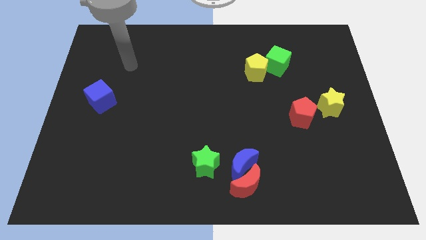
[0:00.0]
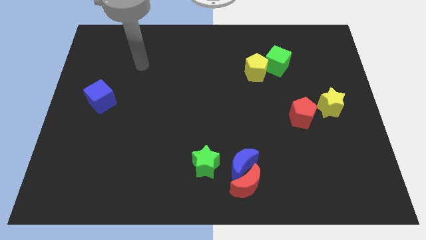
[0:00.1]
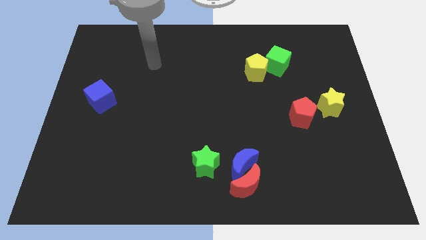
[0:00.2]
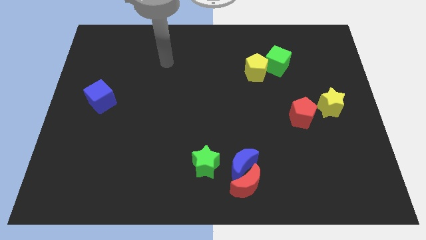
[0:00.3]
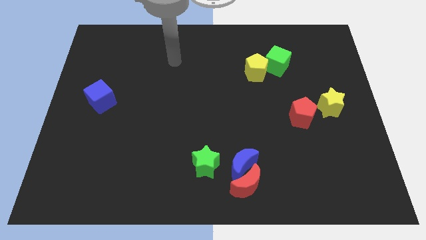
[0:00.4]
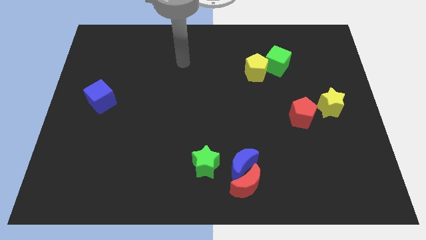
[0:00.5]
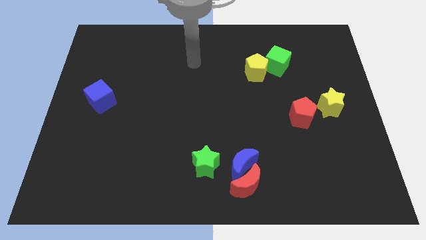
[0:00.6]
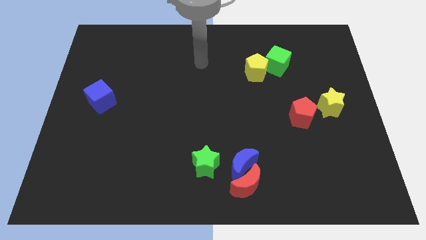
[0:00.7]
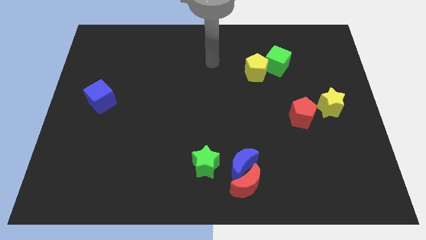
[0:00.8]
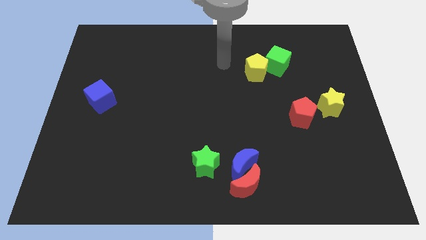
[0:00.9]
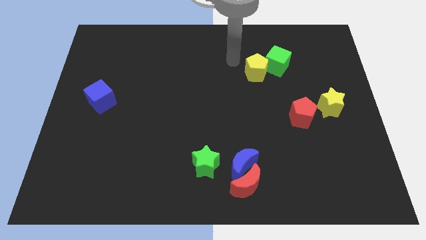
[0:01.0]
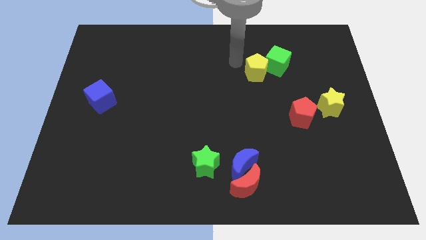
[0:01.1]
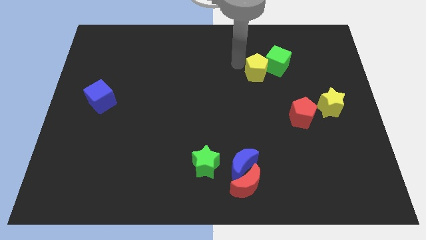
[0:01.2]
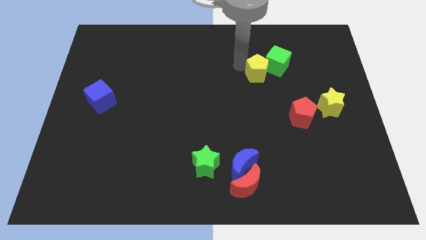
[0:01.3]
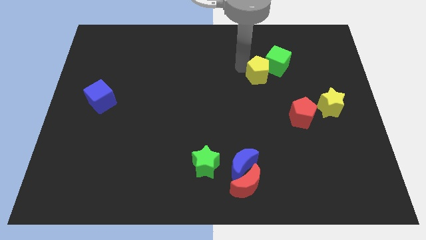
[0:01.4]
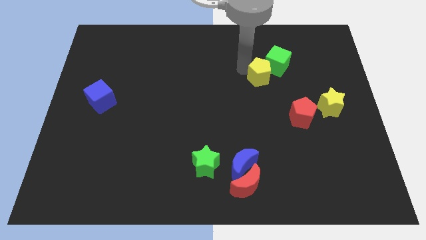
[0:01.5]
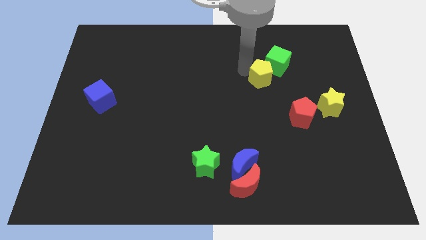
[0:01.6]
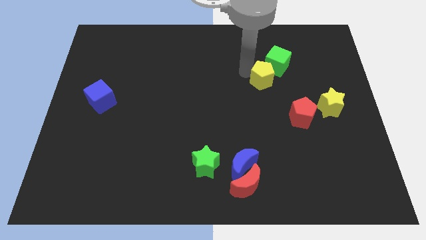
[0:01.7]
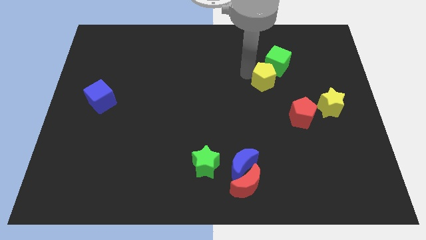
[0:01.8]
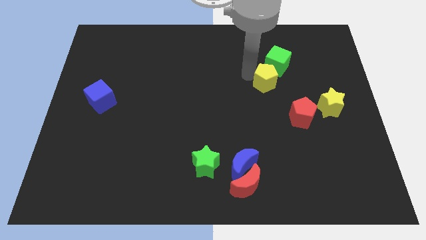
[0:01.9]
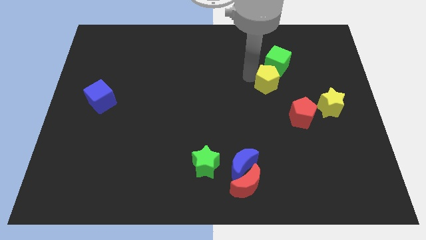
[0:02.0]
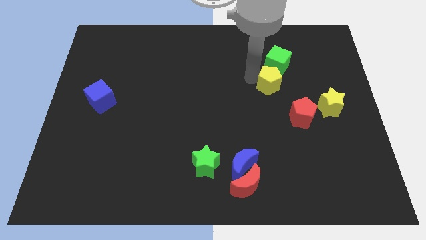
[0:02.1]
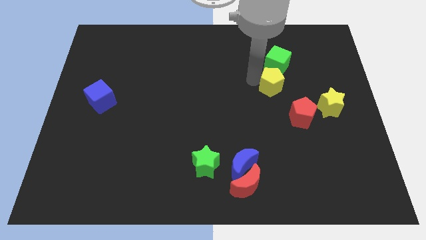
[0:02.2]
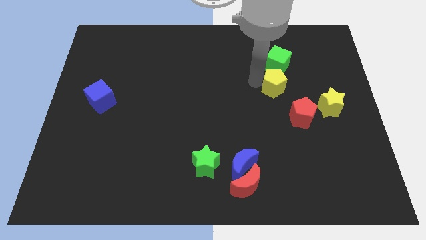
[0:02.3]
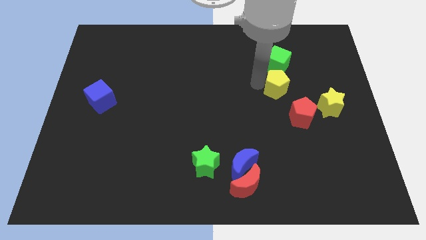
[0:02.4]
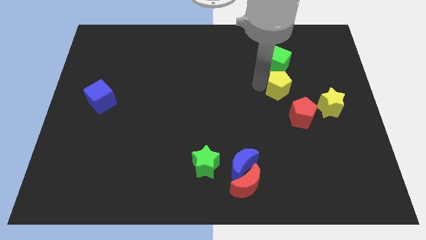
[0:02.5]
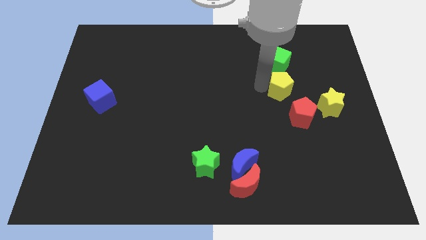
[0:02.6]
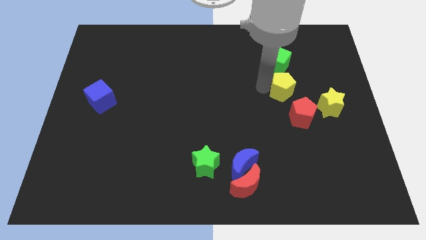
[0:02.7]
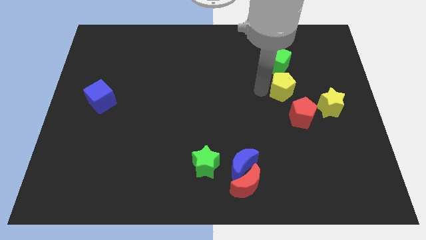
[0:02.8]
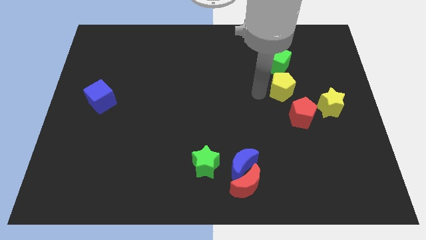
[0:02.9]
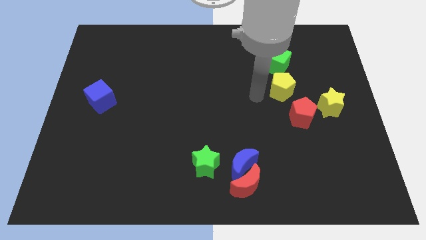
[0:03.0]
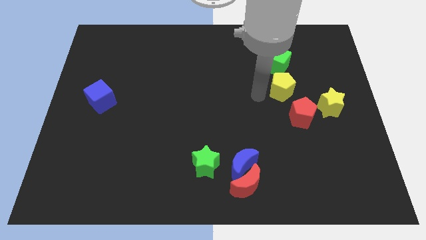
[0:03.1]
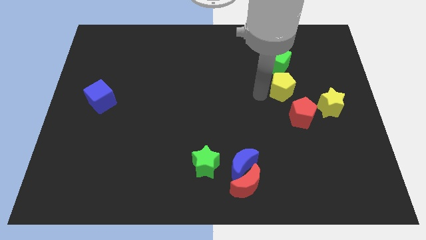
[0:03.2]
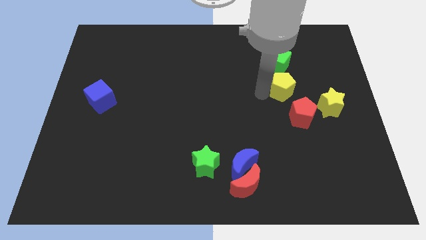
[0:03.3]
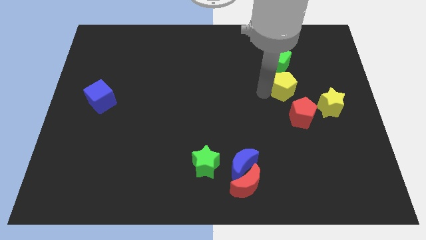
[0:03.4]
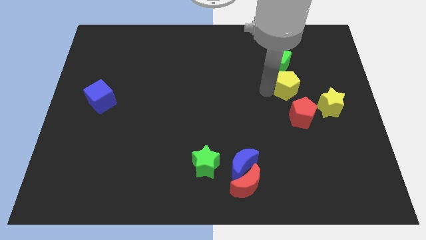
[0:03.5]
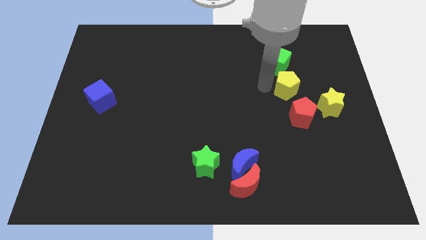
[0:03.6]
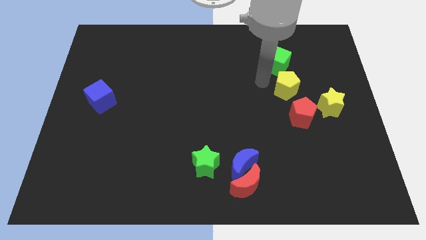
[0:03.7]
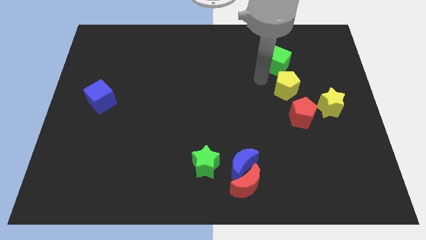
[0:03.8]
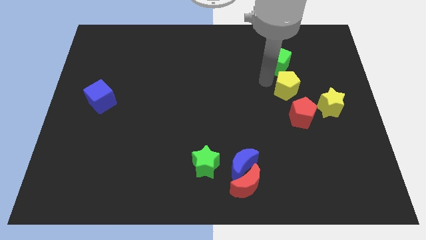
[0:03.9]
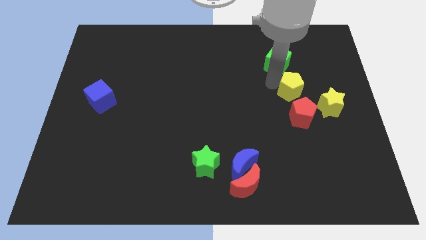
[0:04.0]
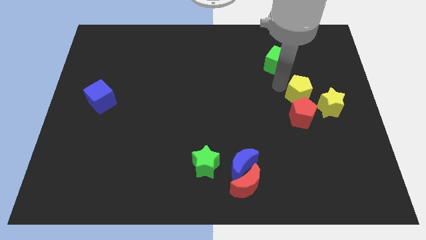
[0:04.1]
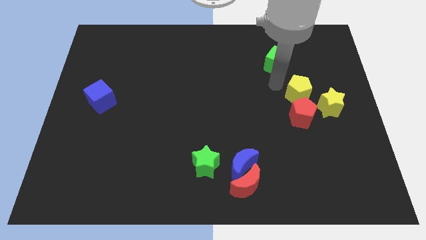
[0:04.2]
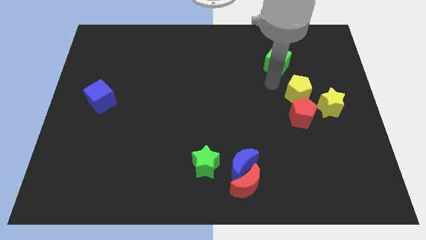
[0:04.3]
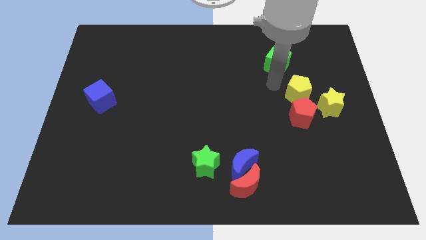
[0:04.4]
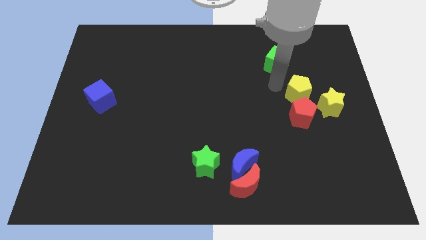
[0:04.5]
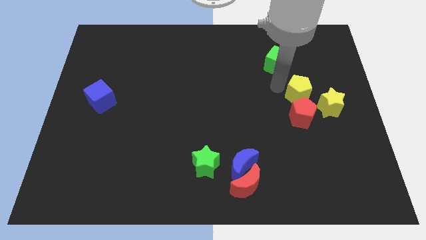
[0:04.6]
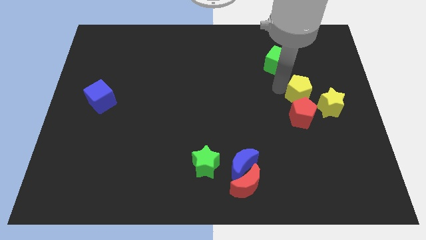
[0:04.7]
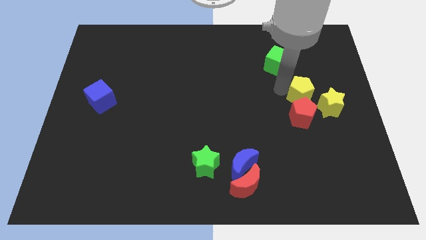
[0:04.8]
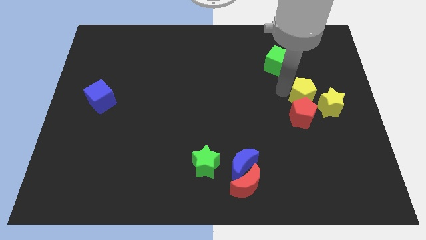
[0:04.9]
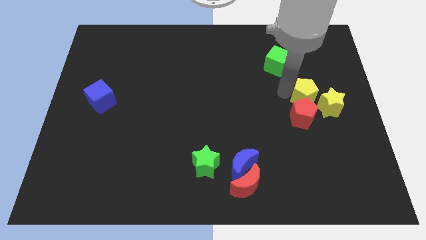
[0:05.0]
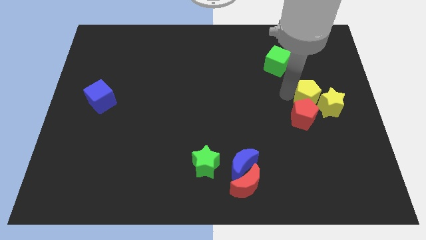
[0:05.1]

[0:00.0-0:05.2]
move the yellow pentagon next to the yellow star

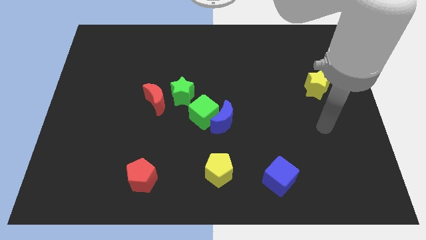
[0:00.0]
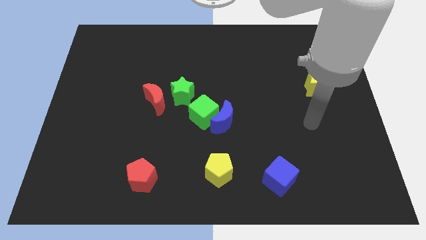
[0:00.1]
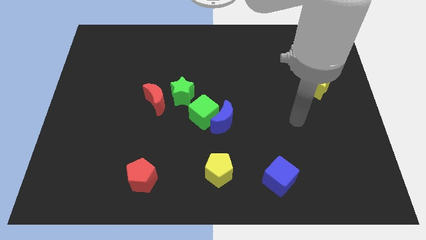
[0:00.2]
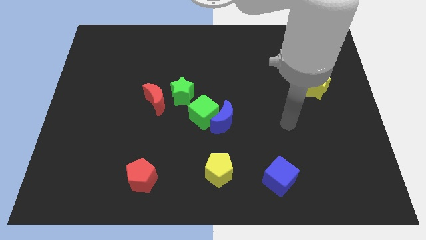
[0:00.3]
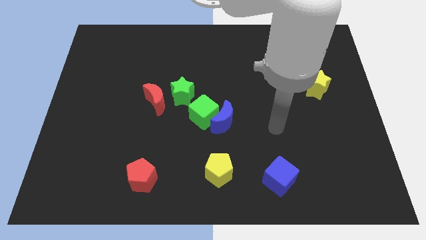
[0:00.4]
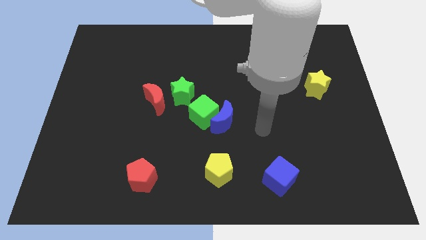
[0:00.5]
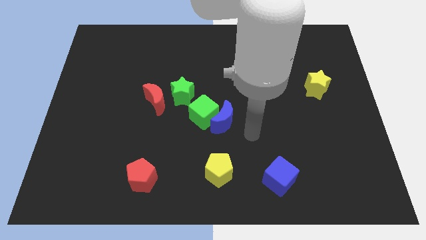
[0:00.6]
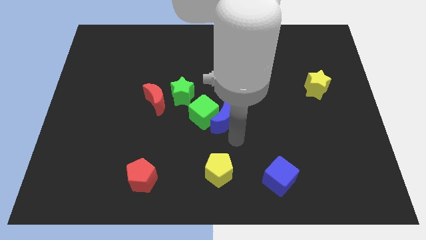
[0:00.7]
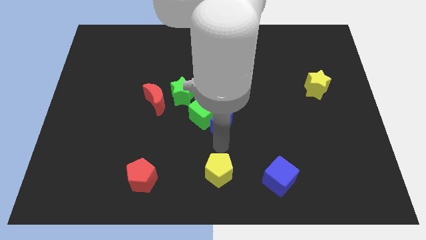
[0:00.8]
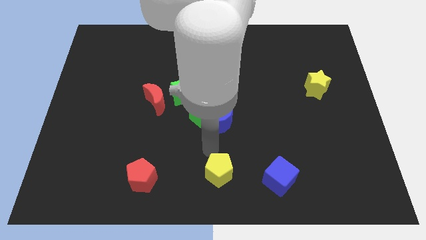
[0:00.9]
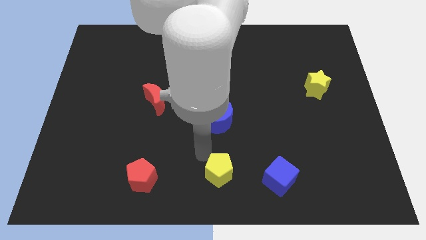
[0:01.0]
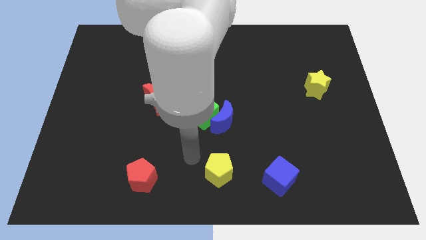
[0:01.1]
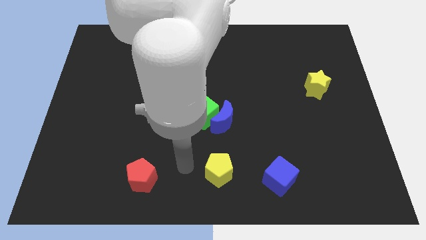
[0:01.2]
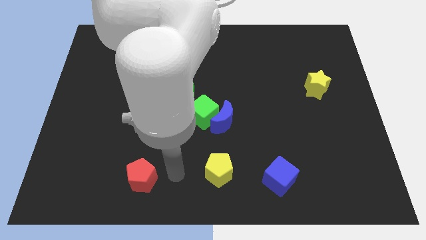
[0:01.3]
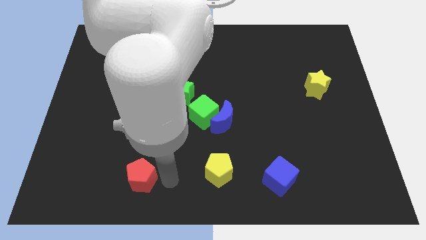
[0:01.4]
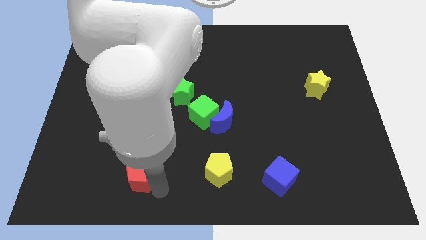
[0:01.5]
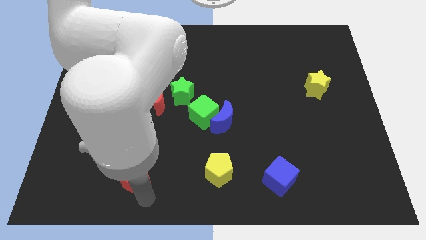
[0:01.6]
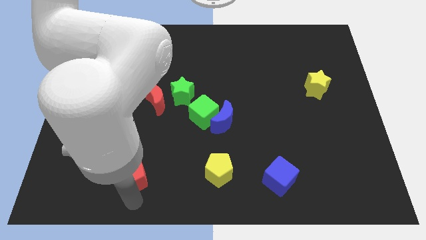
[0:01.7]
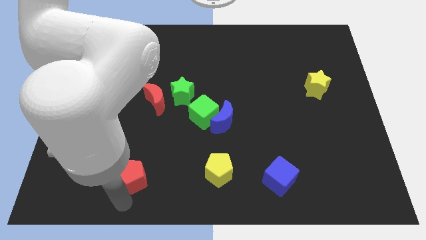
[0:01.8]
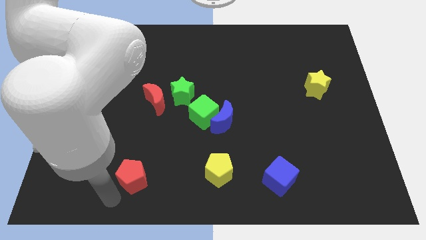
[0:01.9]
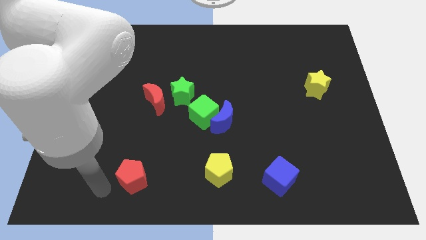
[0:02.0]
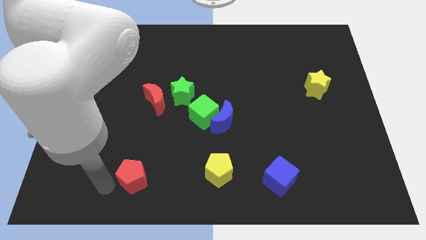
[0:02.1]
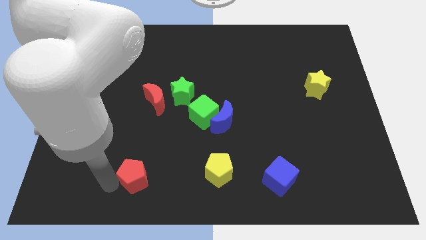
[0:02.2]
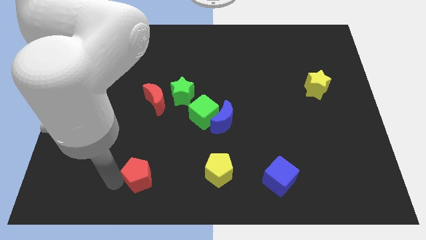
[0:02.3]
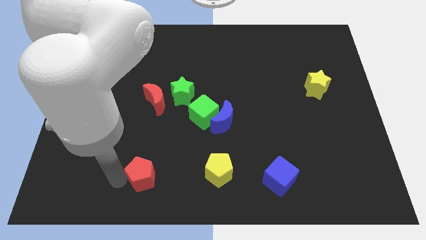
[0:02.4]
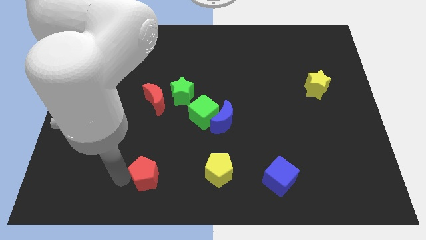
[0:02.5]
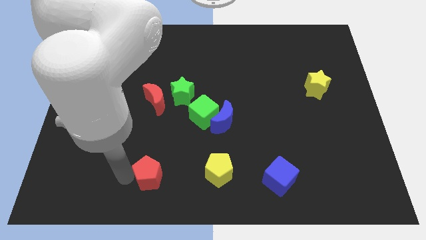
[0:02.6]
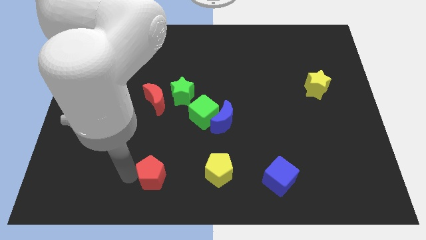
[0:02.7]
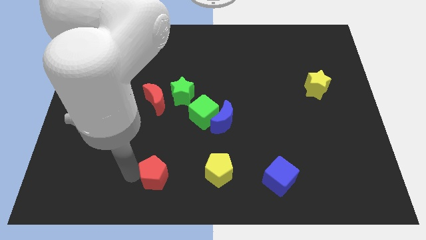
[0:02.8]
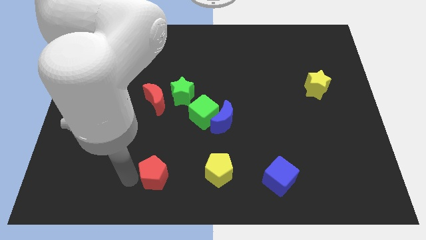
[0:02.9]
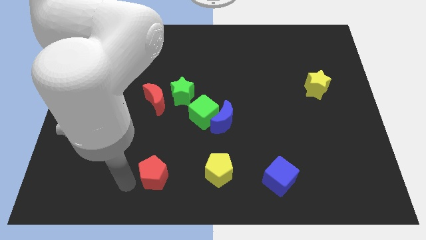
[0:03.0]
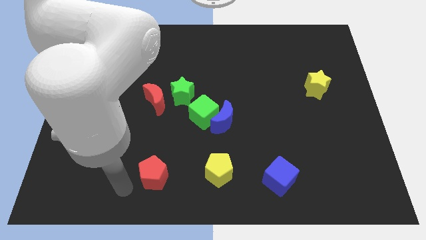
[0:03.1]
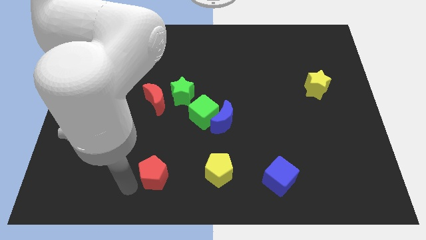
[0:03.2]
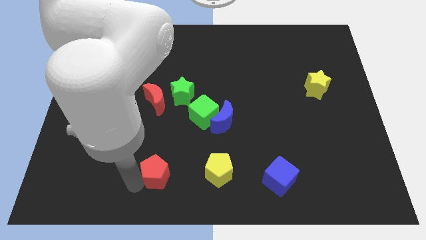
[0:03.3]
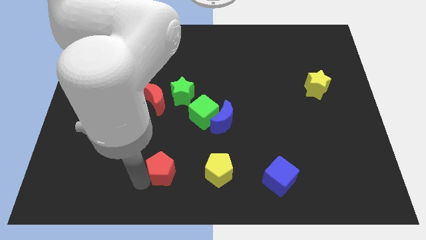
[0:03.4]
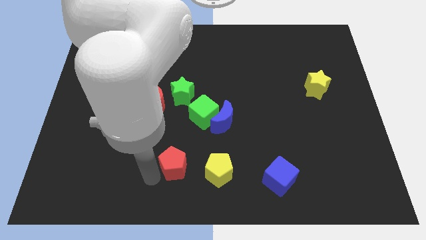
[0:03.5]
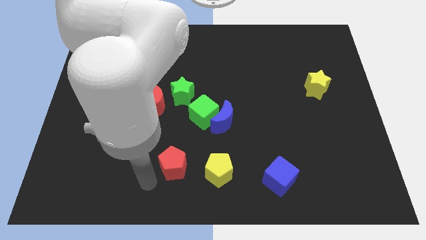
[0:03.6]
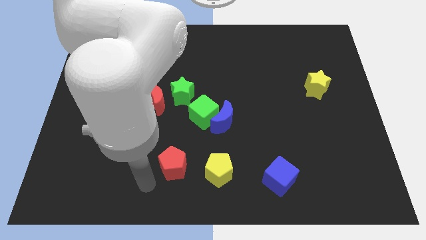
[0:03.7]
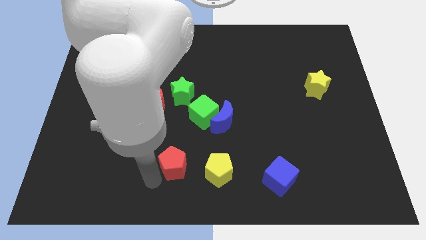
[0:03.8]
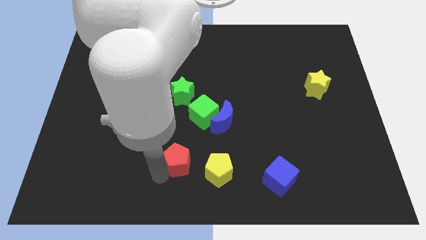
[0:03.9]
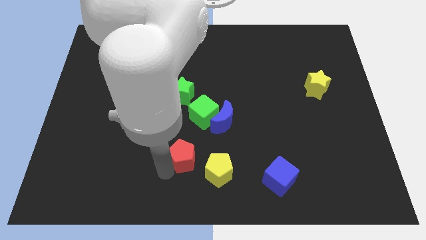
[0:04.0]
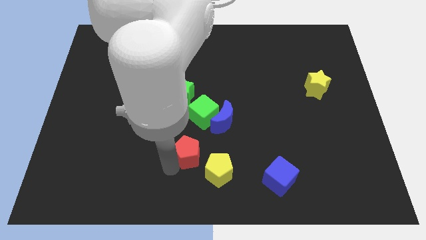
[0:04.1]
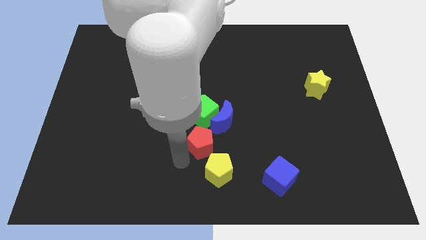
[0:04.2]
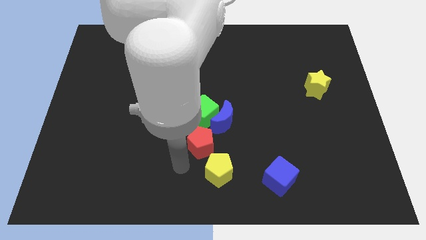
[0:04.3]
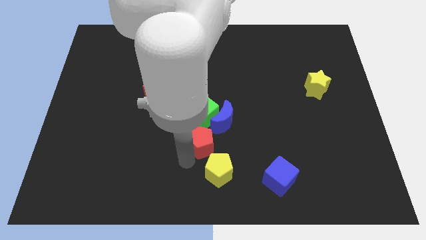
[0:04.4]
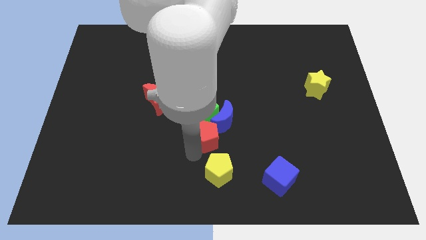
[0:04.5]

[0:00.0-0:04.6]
slide the red pentagon to the blue moon
